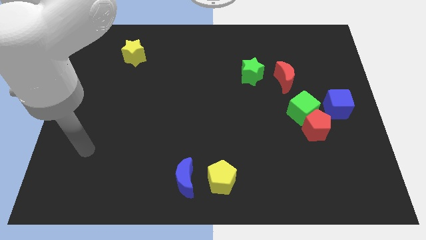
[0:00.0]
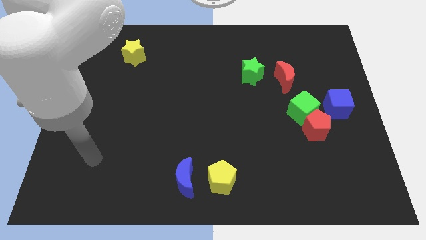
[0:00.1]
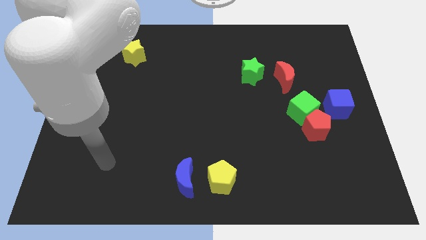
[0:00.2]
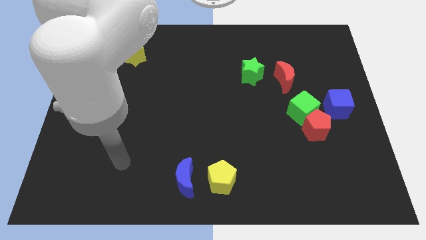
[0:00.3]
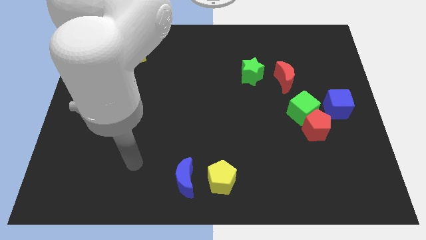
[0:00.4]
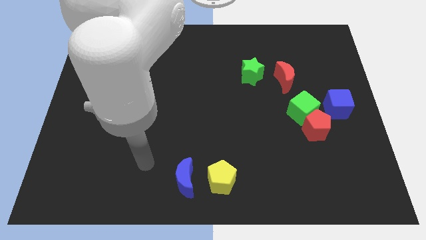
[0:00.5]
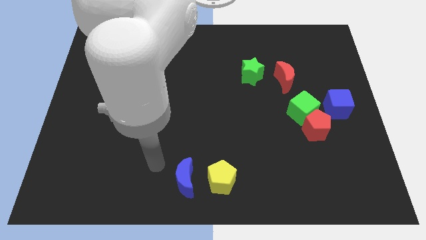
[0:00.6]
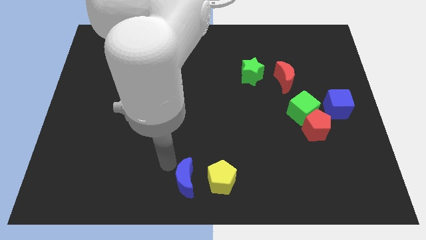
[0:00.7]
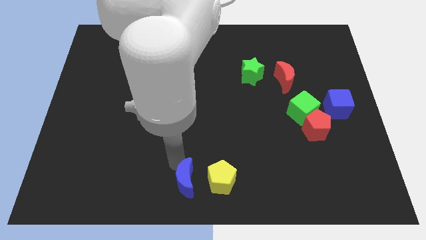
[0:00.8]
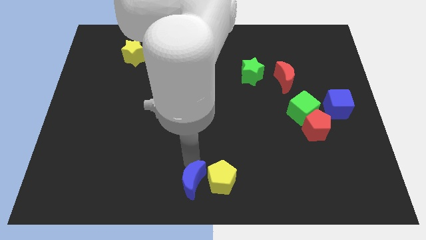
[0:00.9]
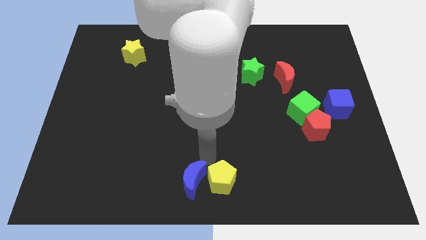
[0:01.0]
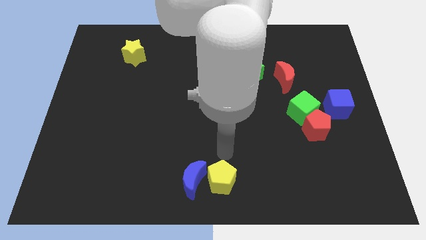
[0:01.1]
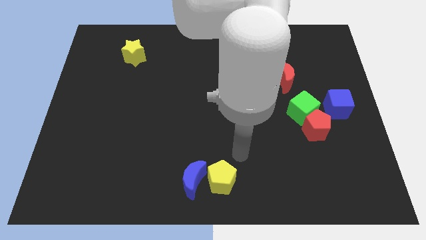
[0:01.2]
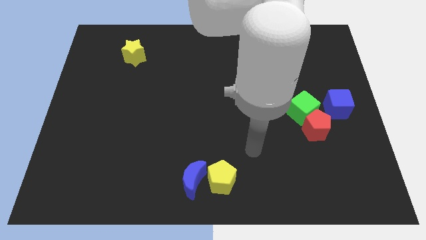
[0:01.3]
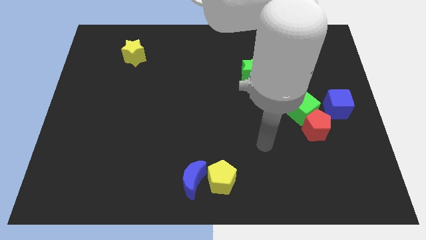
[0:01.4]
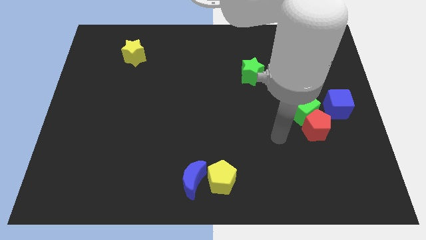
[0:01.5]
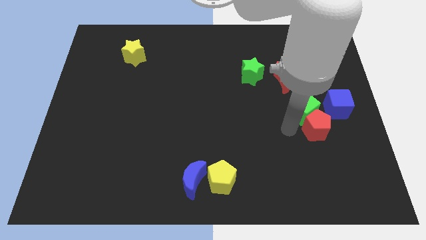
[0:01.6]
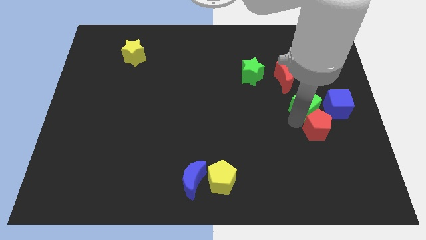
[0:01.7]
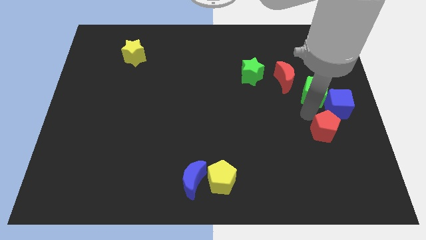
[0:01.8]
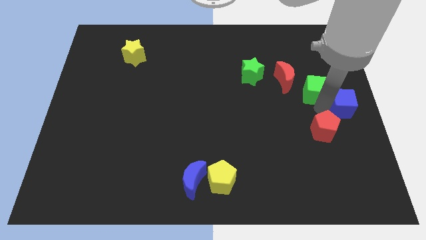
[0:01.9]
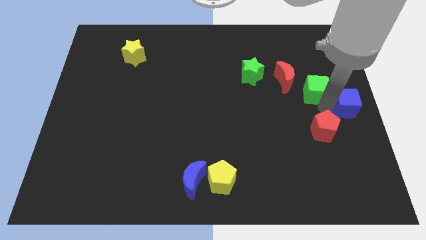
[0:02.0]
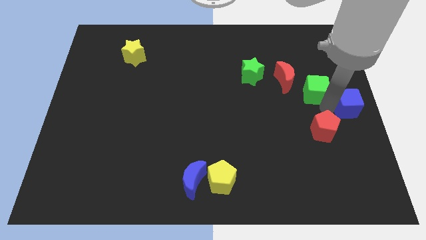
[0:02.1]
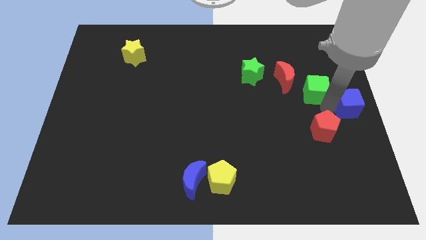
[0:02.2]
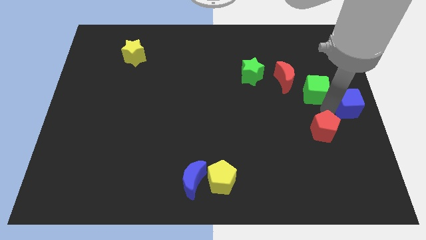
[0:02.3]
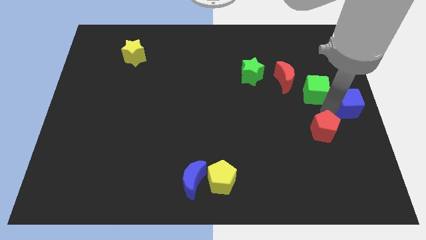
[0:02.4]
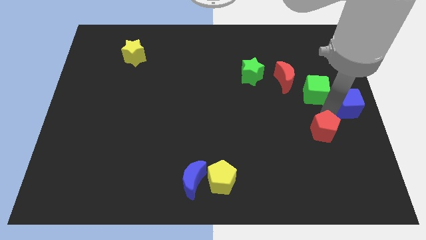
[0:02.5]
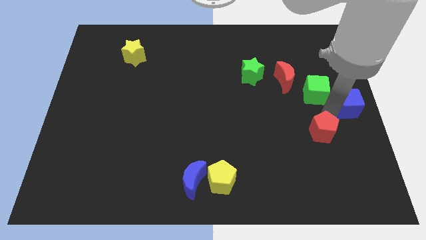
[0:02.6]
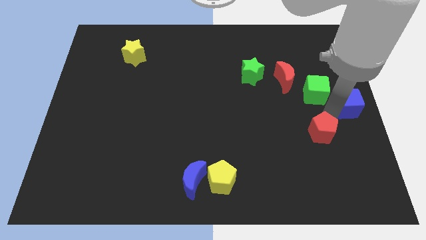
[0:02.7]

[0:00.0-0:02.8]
move the red pentagon away from the green cube and blue cube

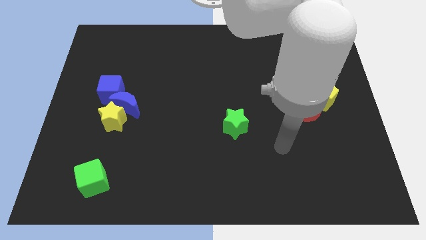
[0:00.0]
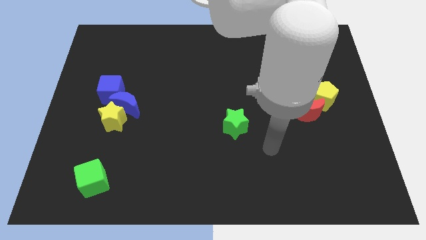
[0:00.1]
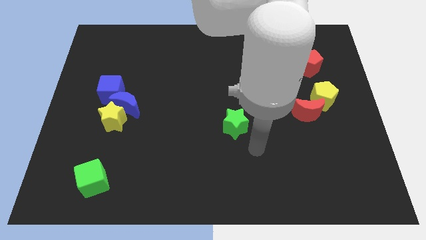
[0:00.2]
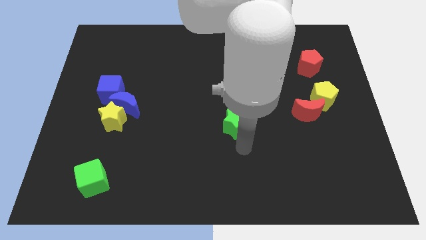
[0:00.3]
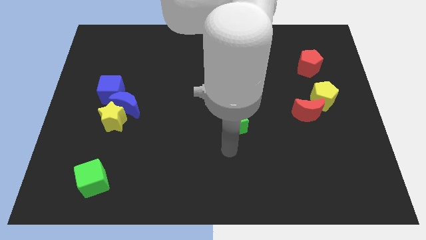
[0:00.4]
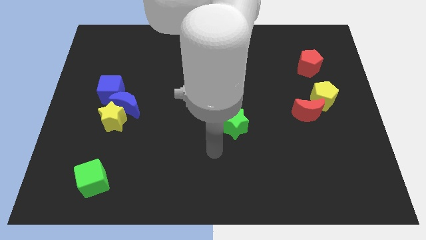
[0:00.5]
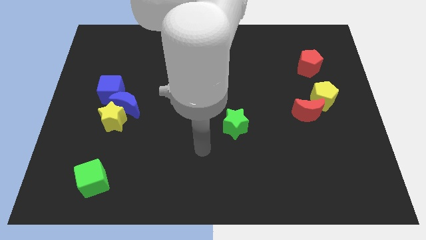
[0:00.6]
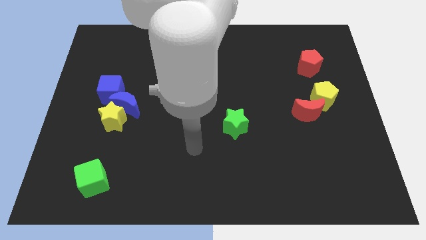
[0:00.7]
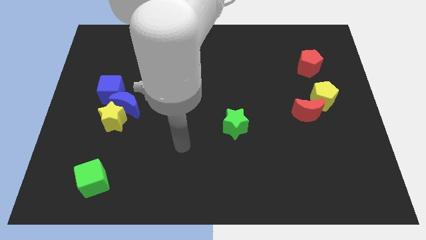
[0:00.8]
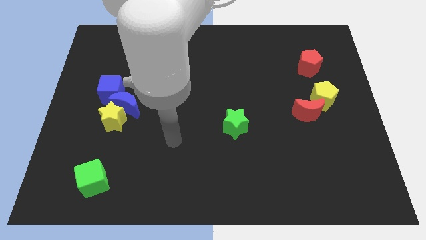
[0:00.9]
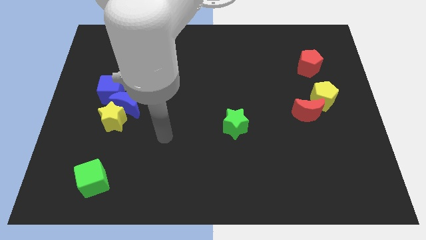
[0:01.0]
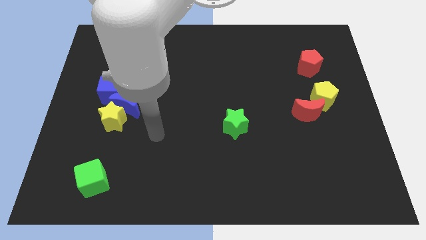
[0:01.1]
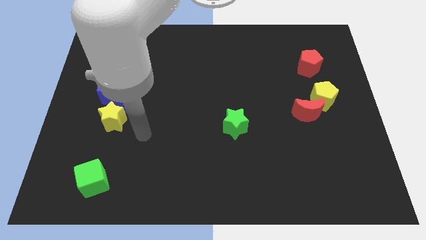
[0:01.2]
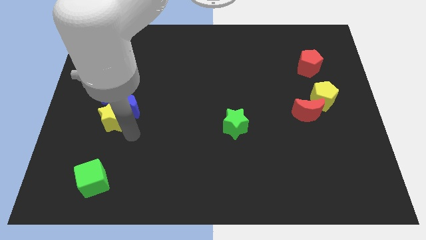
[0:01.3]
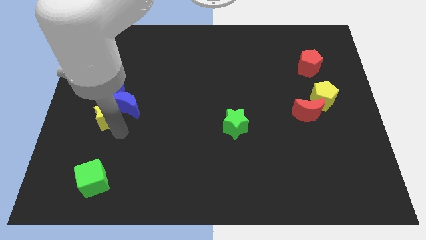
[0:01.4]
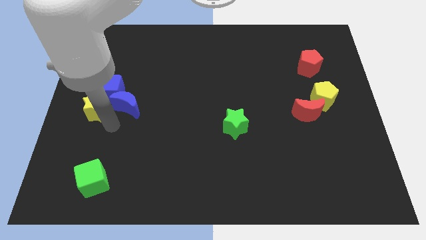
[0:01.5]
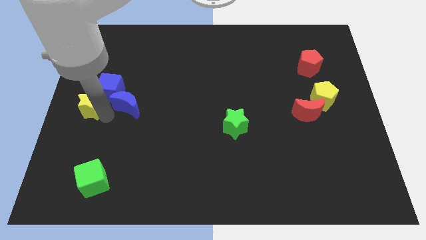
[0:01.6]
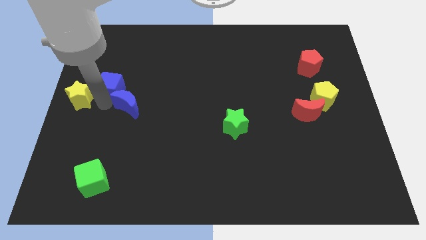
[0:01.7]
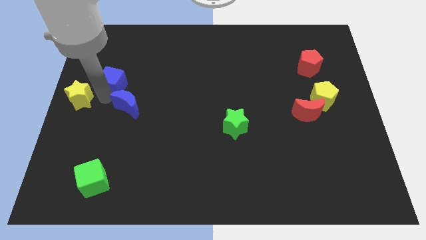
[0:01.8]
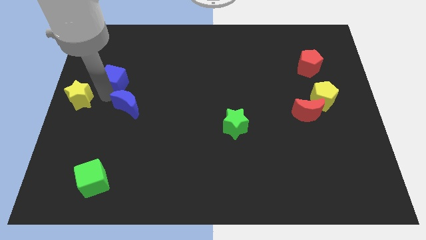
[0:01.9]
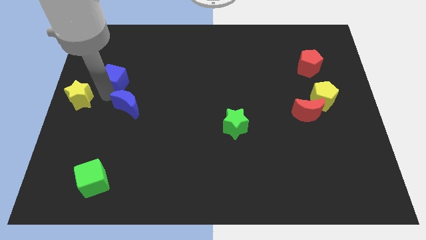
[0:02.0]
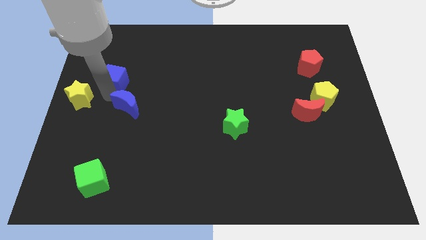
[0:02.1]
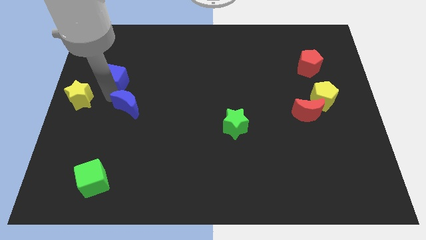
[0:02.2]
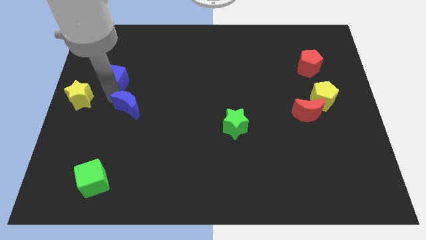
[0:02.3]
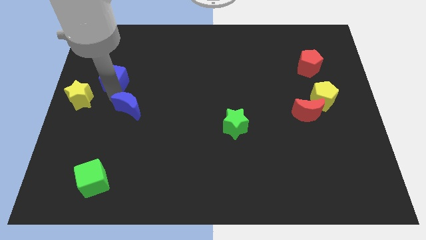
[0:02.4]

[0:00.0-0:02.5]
pull the blue moon apart from the yellow star and blue cube

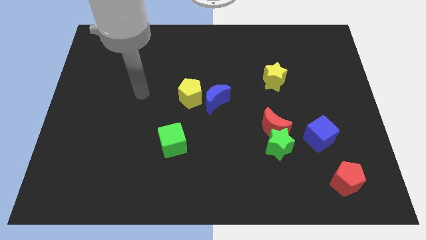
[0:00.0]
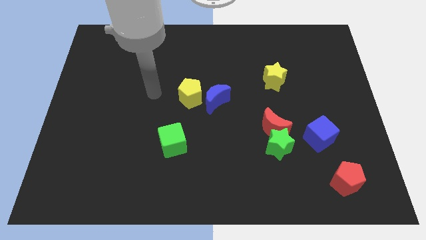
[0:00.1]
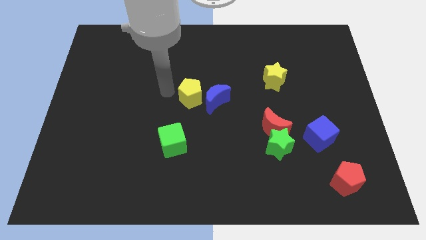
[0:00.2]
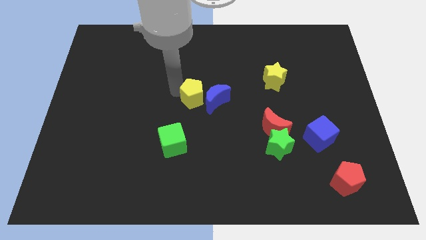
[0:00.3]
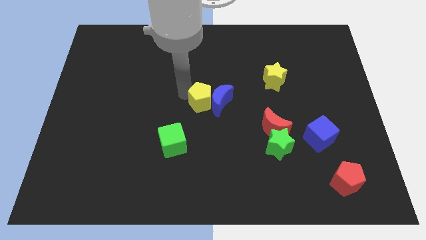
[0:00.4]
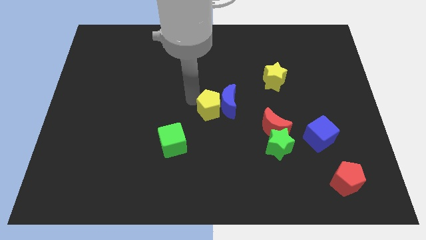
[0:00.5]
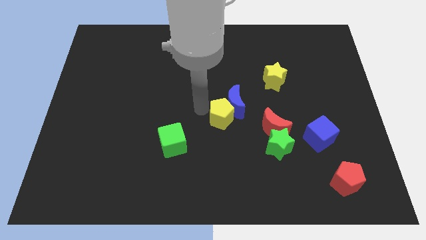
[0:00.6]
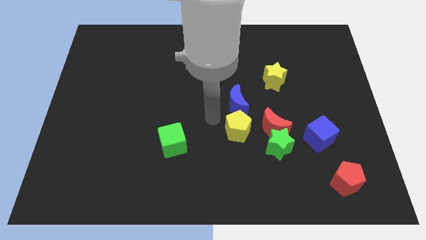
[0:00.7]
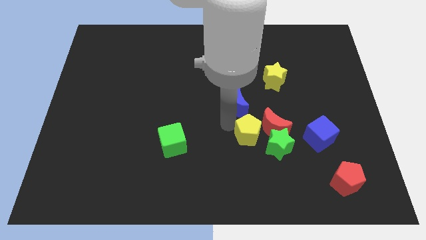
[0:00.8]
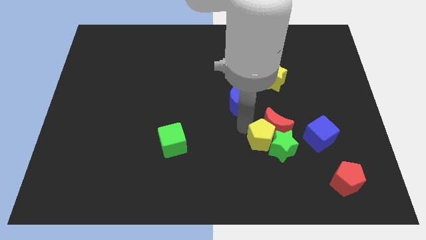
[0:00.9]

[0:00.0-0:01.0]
separate the blue moon from the yellow pentagon

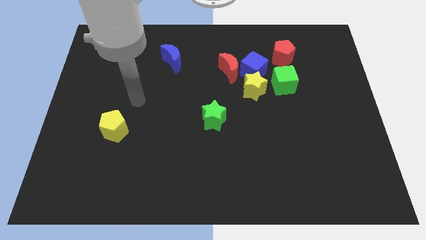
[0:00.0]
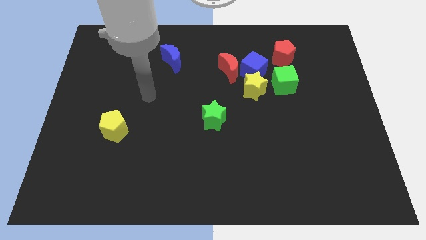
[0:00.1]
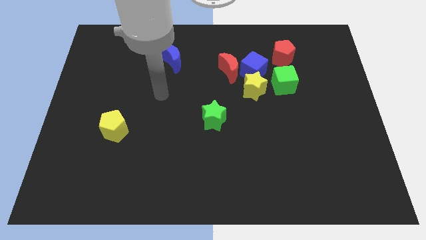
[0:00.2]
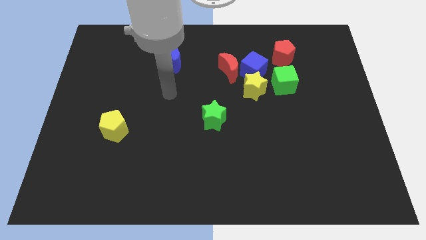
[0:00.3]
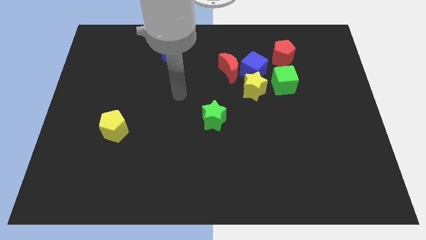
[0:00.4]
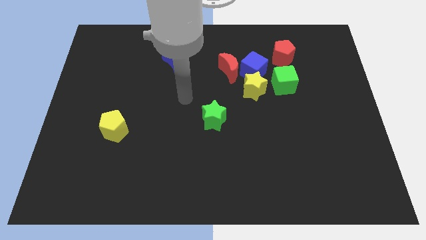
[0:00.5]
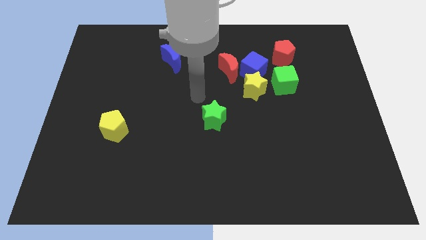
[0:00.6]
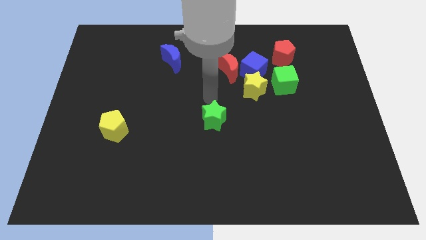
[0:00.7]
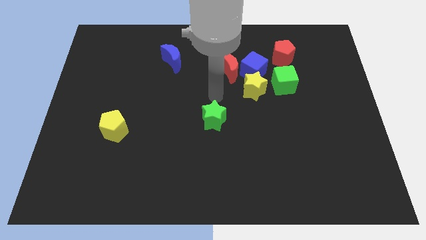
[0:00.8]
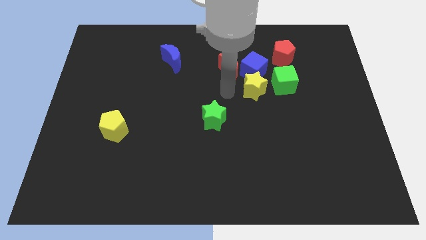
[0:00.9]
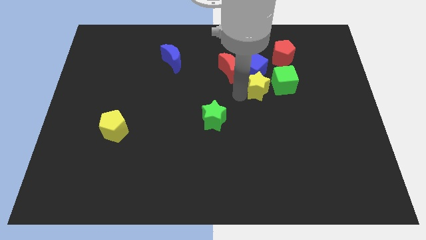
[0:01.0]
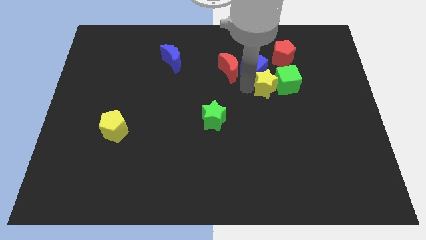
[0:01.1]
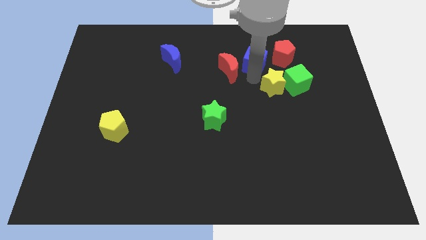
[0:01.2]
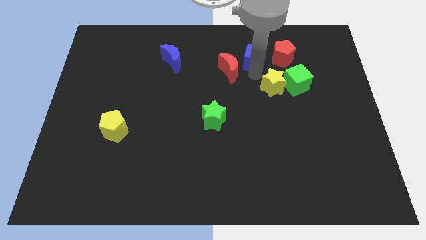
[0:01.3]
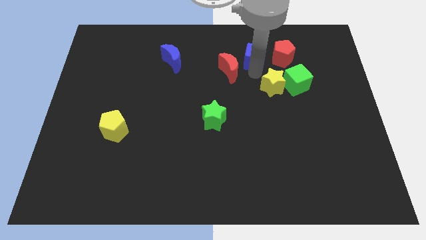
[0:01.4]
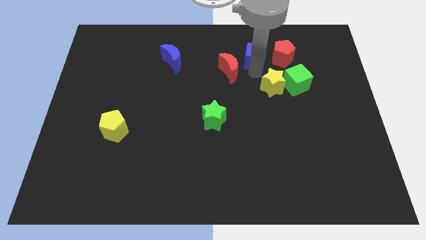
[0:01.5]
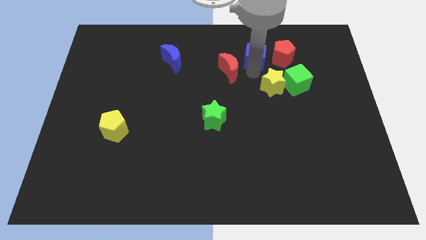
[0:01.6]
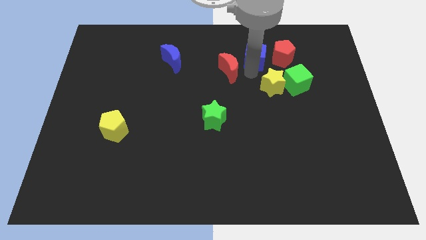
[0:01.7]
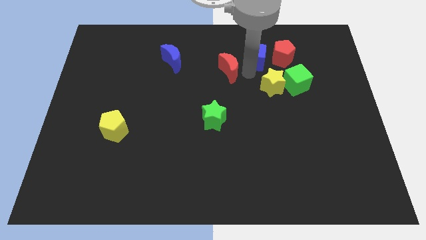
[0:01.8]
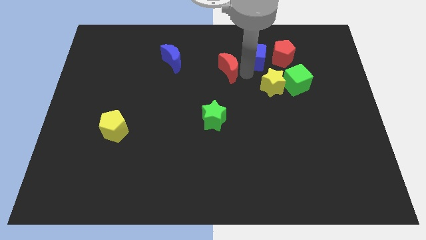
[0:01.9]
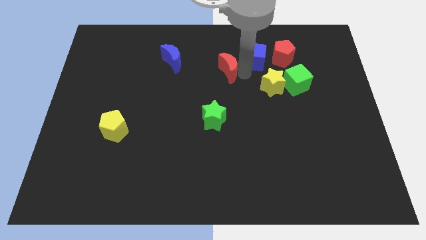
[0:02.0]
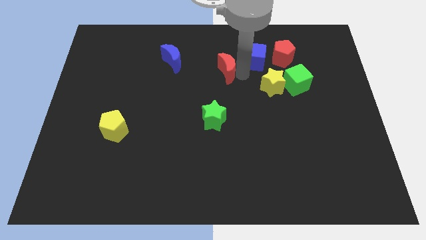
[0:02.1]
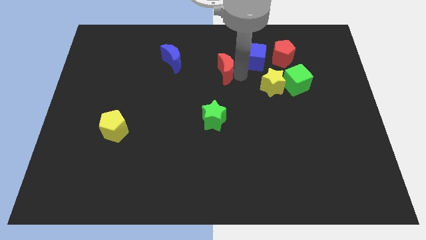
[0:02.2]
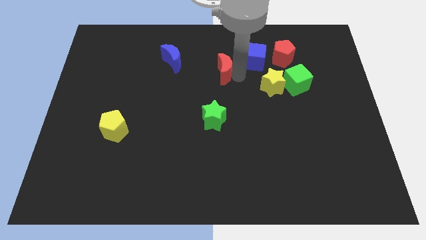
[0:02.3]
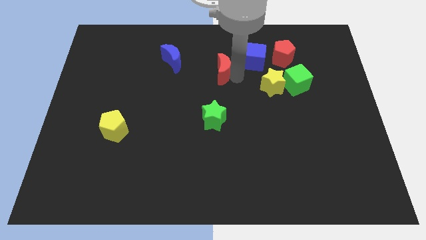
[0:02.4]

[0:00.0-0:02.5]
pull the red moon apart from the blue cube and yellow star

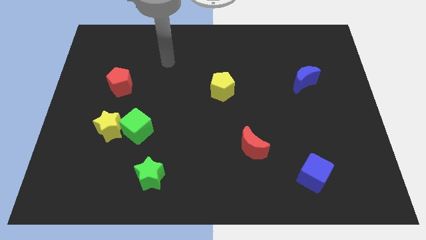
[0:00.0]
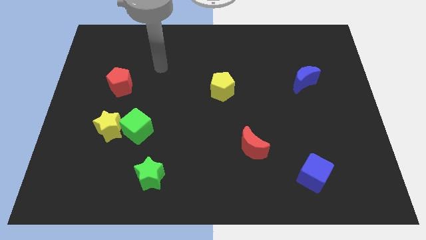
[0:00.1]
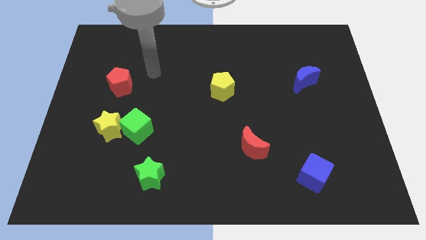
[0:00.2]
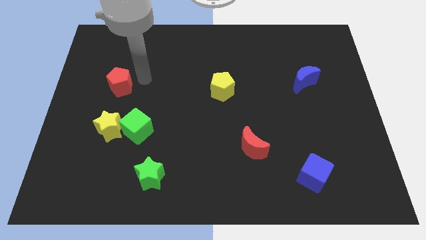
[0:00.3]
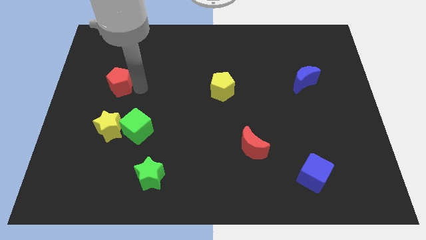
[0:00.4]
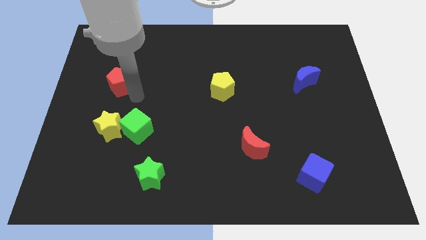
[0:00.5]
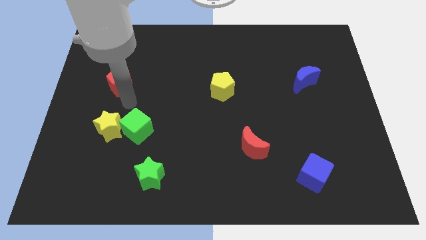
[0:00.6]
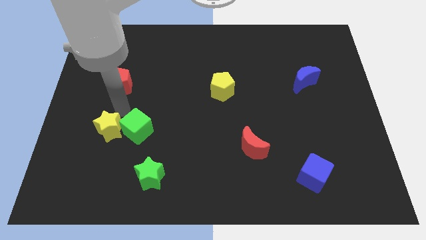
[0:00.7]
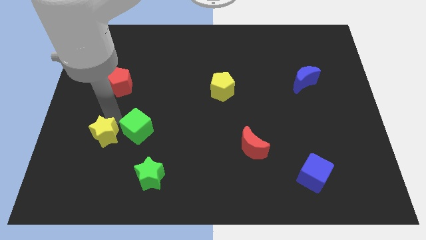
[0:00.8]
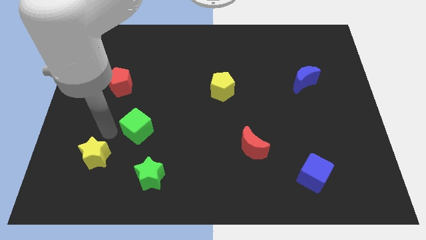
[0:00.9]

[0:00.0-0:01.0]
separate the green cube from the yellow star
